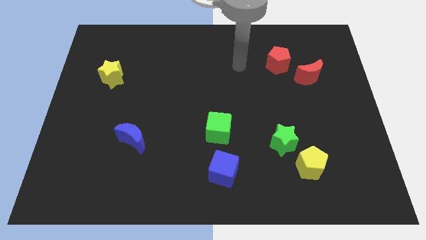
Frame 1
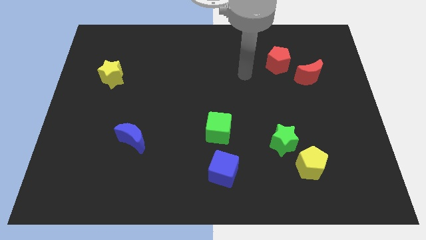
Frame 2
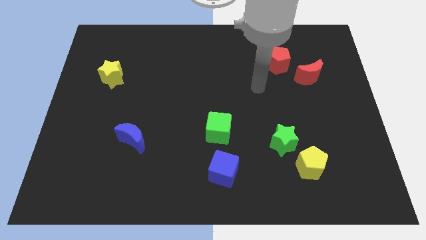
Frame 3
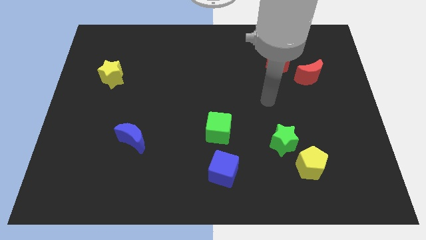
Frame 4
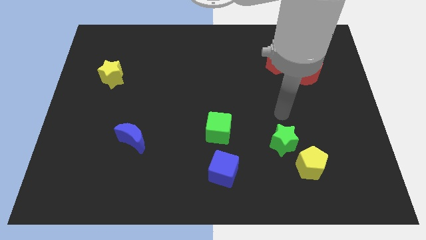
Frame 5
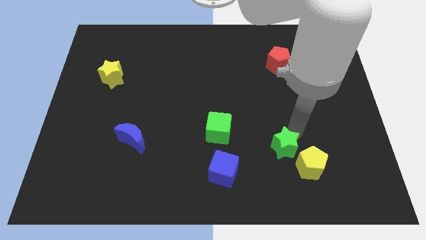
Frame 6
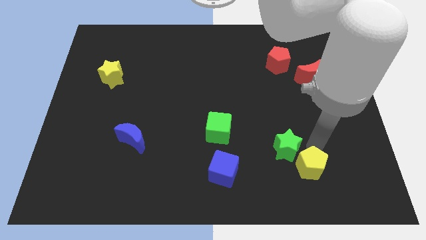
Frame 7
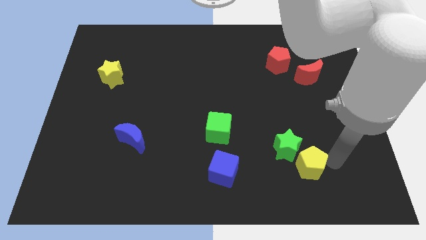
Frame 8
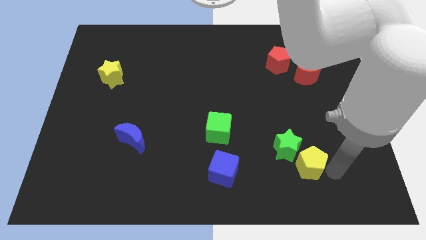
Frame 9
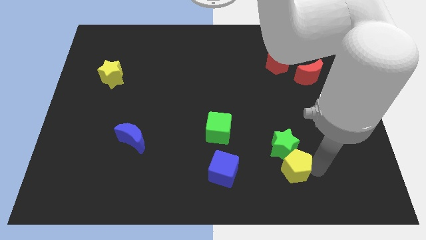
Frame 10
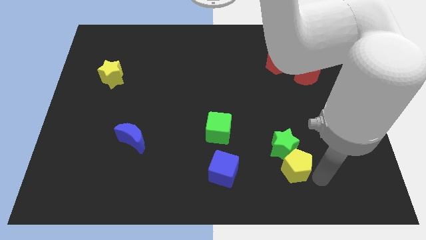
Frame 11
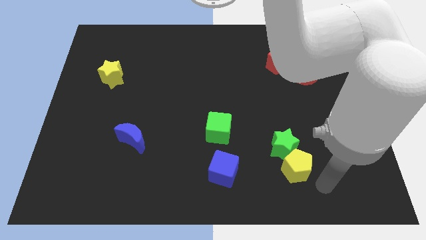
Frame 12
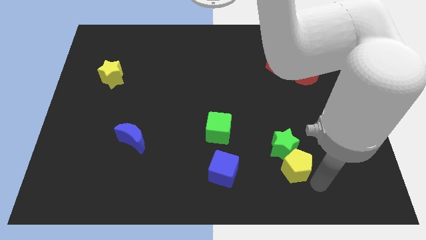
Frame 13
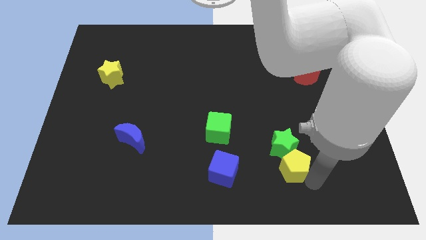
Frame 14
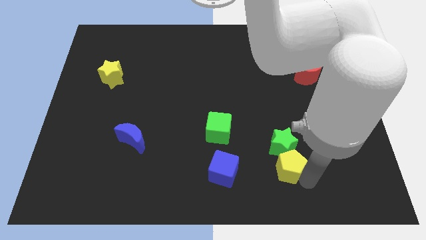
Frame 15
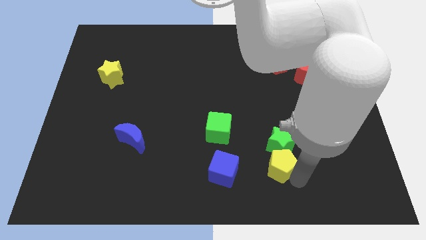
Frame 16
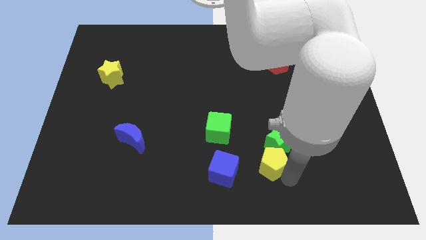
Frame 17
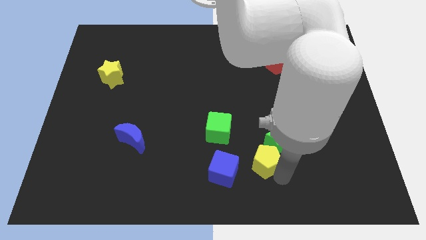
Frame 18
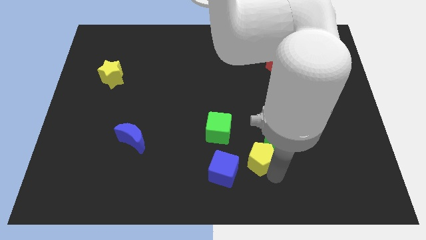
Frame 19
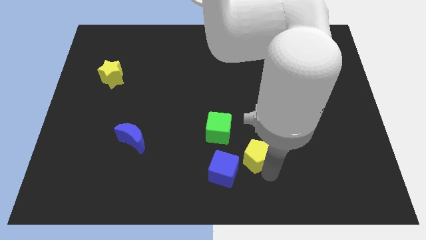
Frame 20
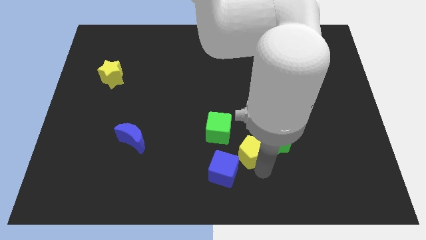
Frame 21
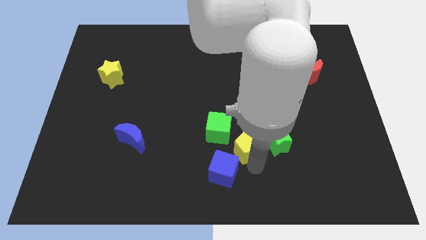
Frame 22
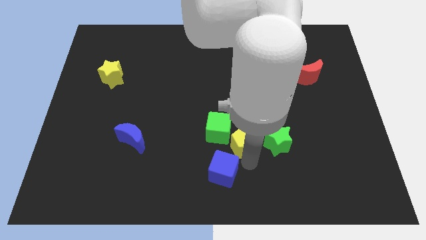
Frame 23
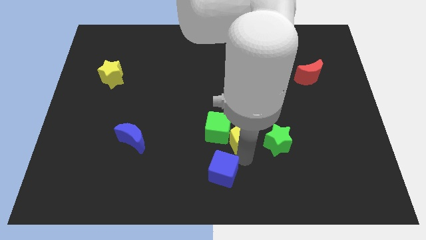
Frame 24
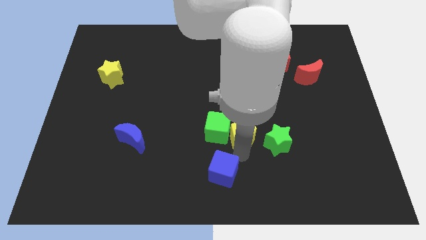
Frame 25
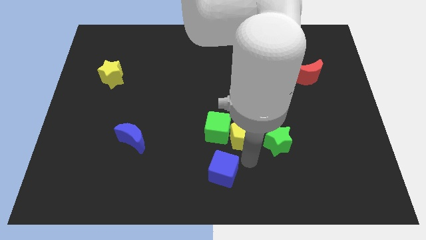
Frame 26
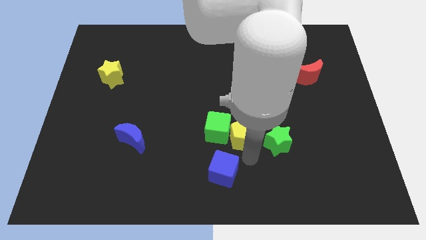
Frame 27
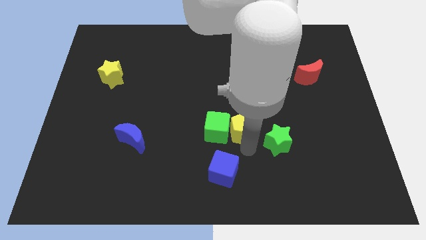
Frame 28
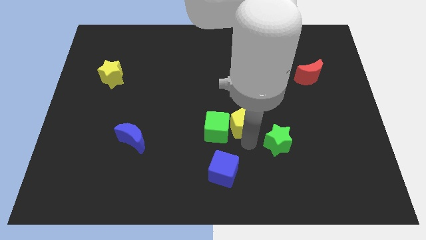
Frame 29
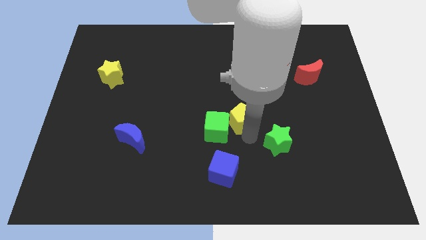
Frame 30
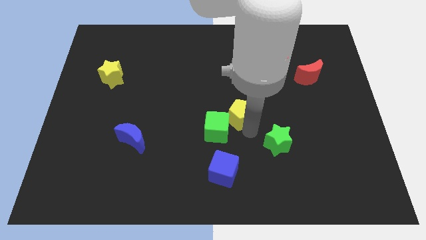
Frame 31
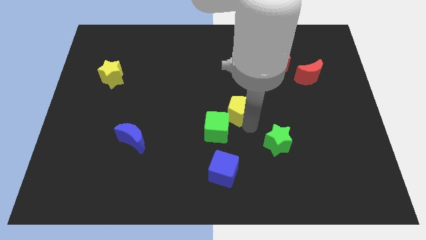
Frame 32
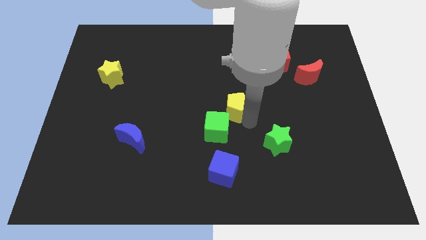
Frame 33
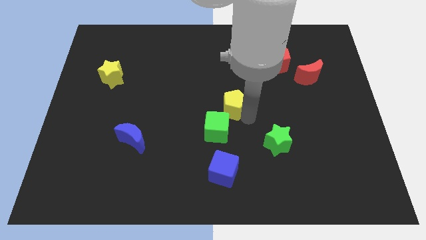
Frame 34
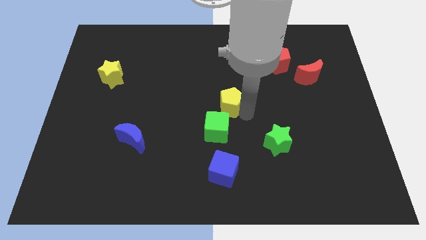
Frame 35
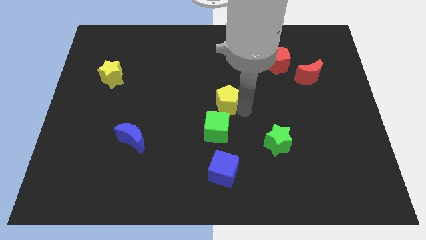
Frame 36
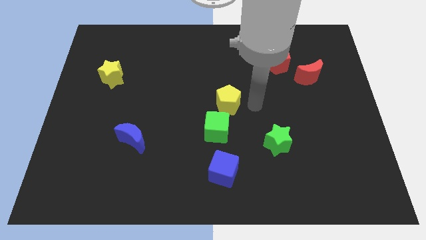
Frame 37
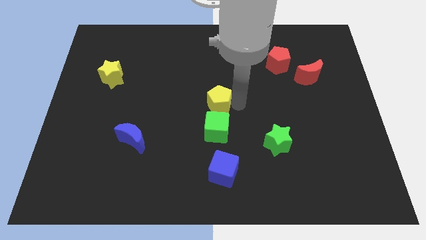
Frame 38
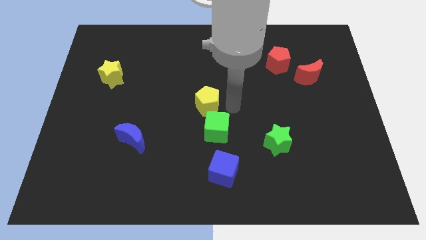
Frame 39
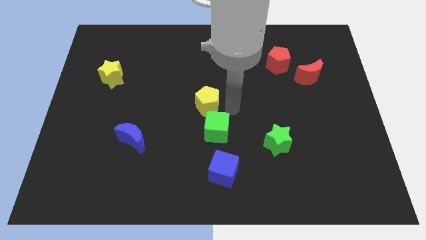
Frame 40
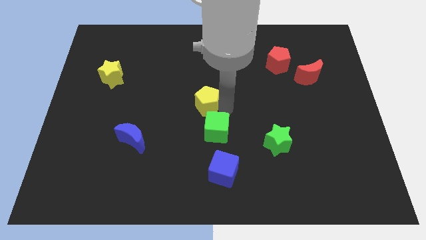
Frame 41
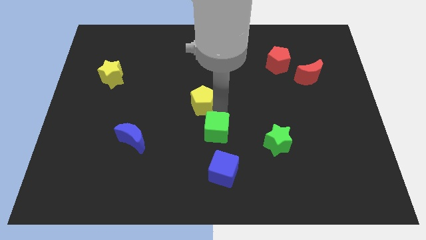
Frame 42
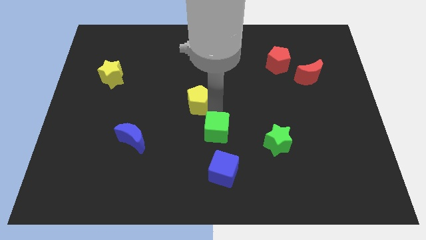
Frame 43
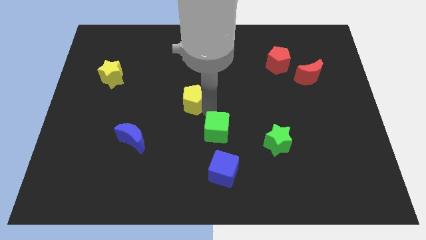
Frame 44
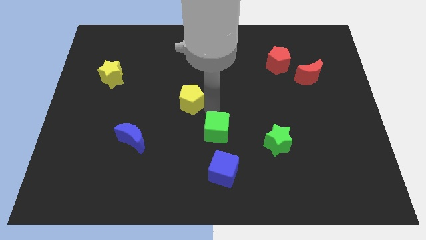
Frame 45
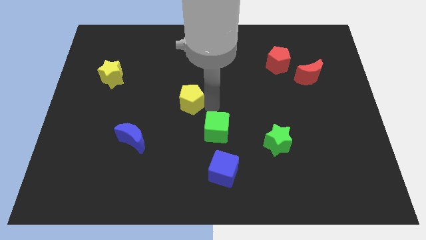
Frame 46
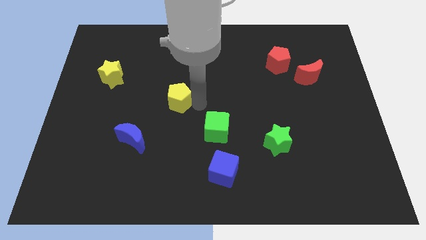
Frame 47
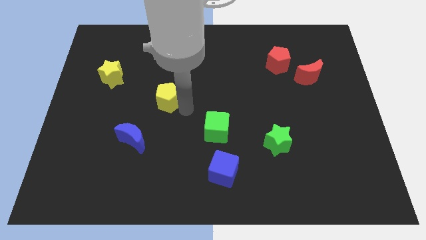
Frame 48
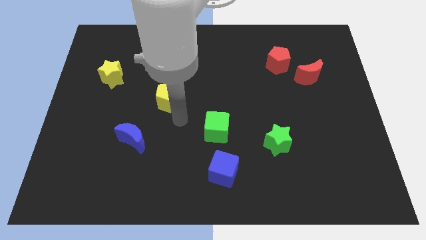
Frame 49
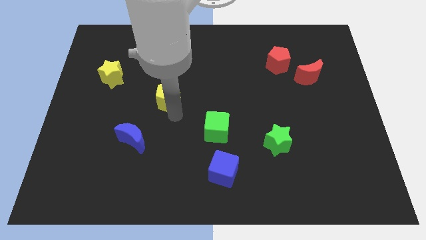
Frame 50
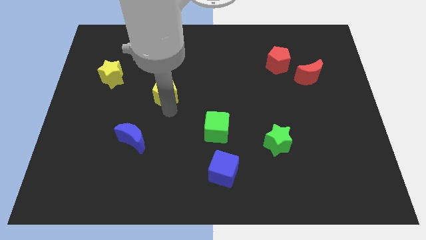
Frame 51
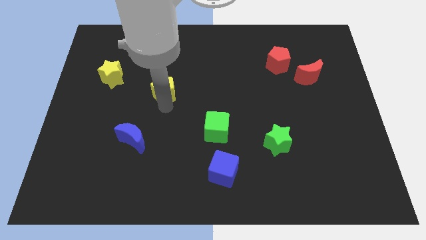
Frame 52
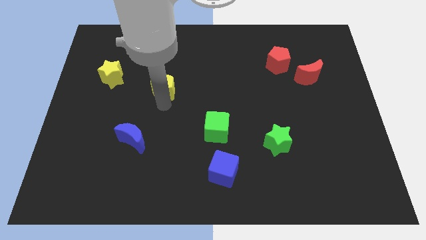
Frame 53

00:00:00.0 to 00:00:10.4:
slide the yellow pentagon right of the yellow star

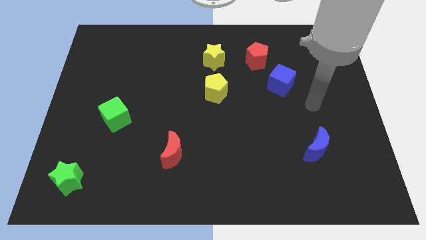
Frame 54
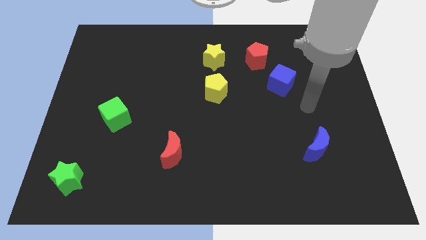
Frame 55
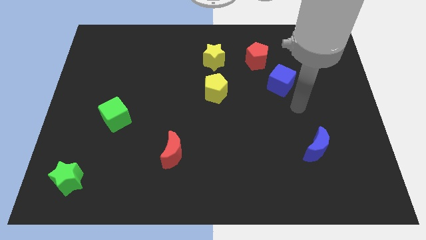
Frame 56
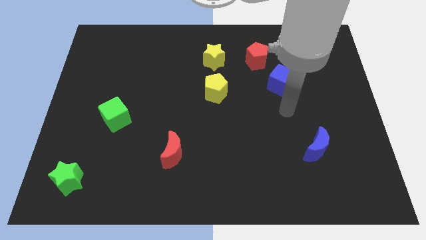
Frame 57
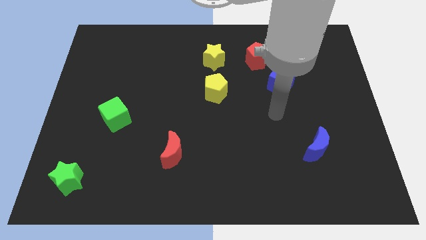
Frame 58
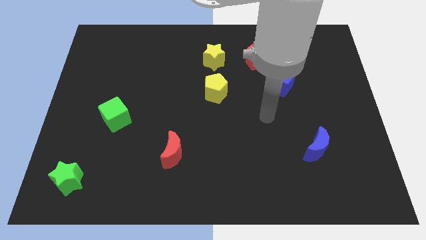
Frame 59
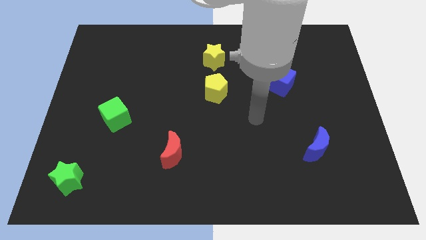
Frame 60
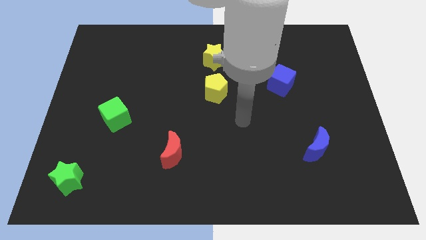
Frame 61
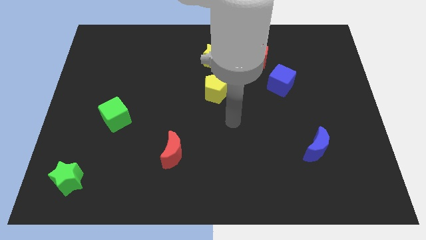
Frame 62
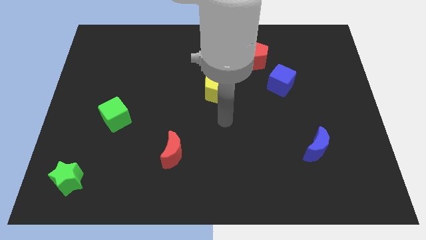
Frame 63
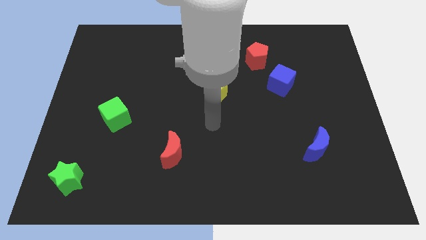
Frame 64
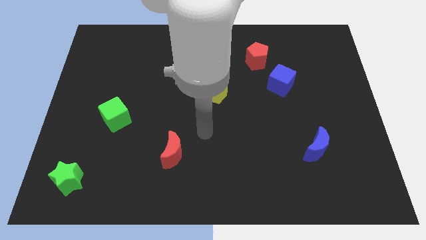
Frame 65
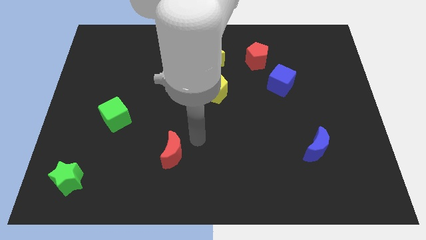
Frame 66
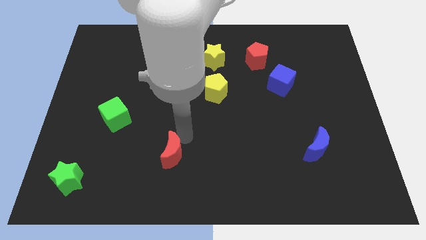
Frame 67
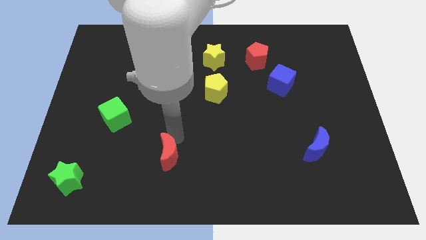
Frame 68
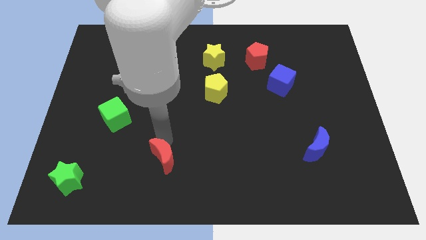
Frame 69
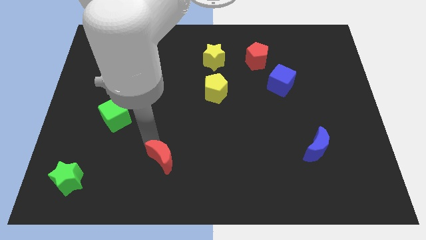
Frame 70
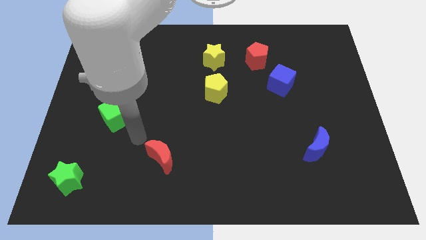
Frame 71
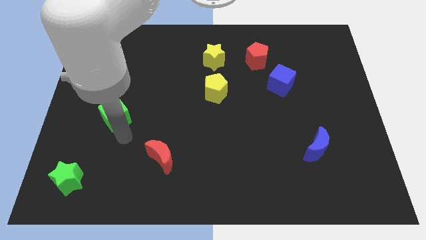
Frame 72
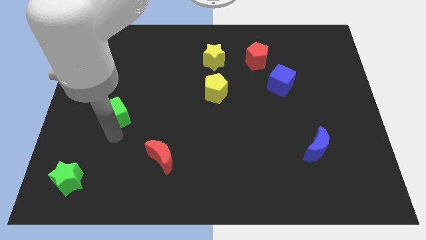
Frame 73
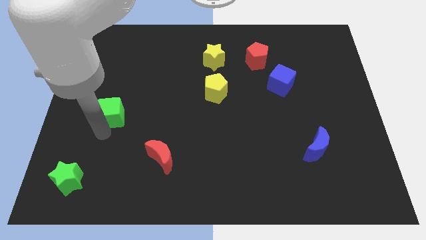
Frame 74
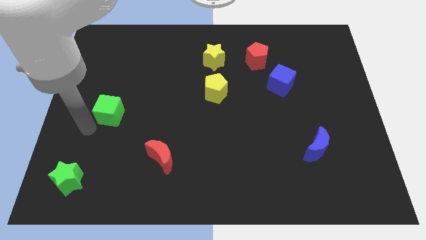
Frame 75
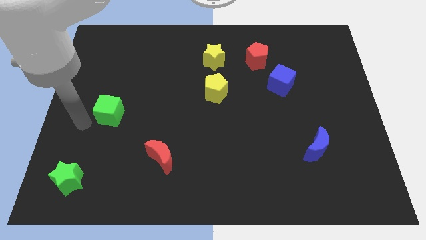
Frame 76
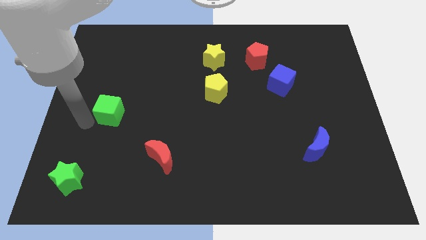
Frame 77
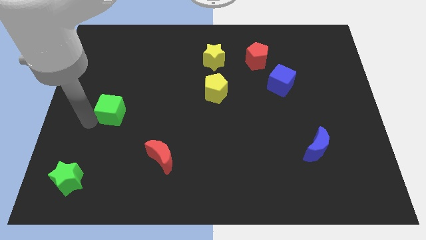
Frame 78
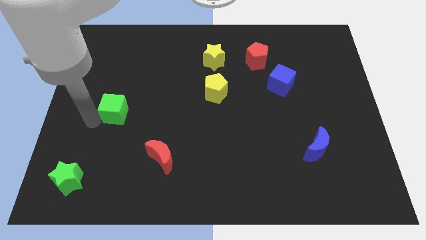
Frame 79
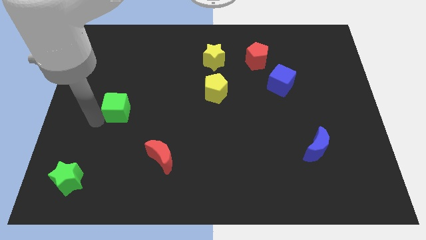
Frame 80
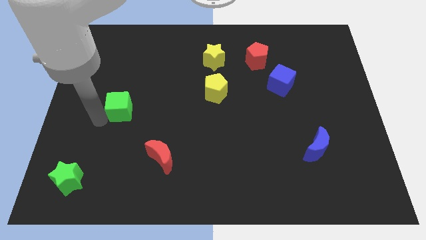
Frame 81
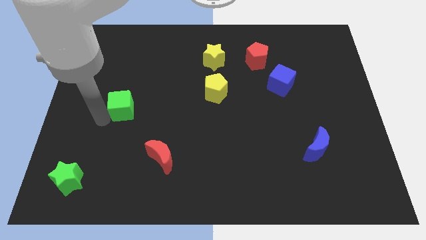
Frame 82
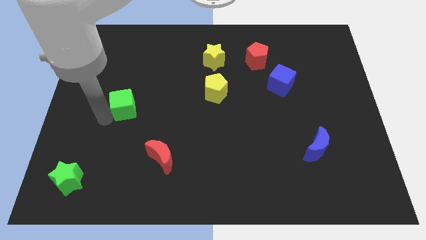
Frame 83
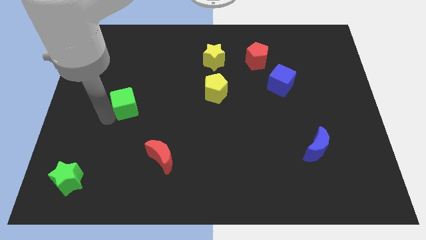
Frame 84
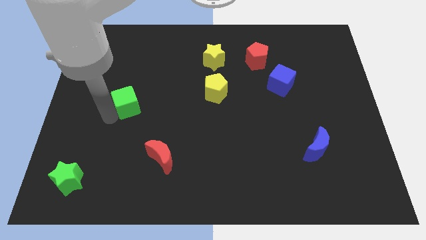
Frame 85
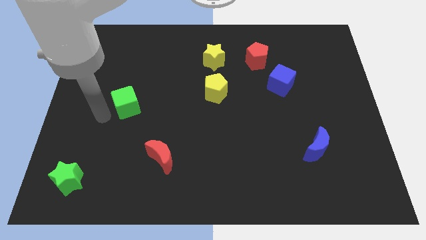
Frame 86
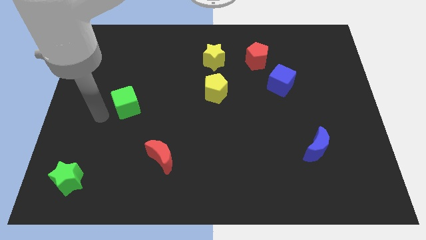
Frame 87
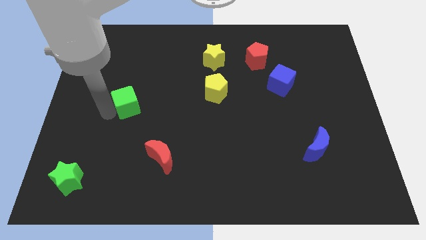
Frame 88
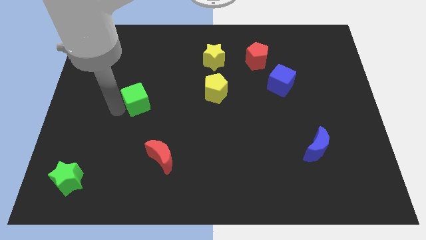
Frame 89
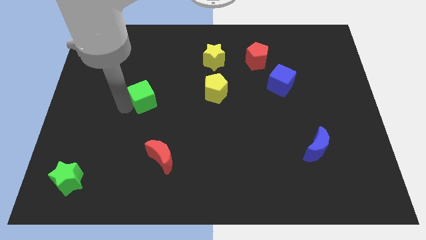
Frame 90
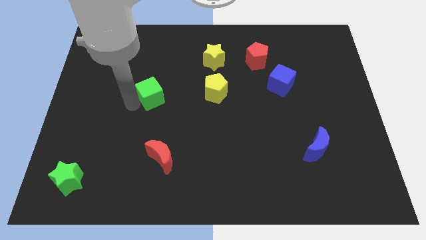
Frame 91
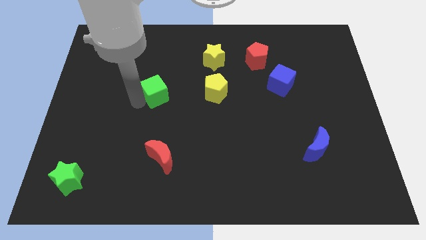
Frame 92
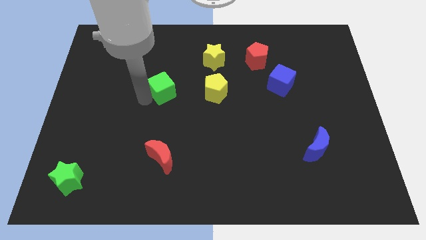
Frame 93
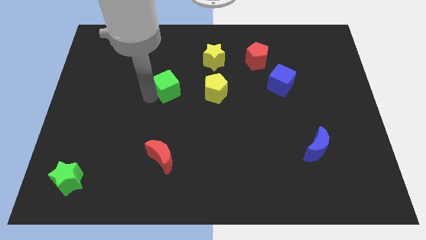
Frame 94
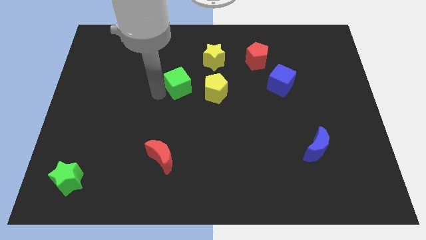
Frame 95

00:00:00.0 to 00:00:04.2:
slide the green cube diagonally up and to the left of the yellow pentagon
